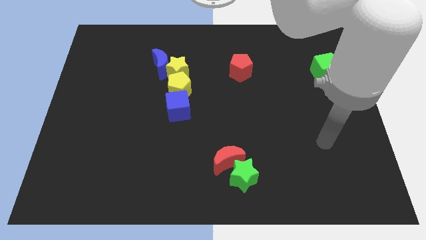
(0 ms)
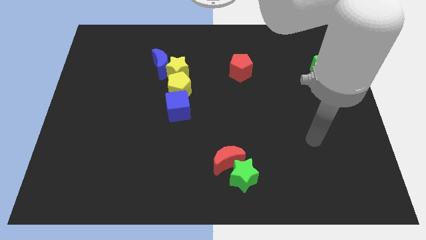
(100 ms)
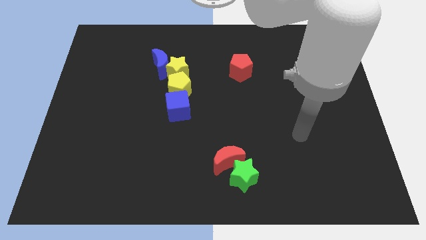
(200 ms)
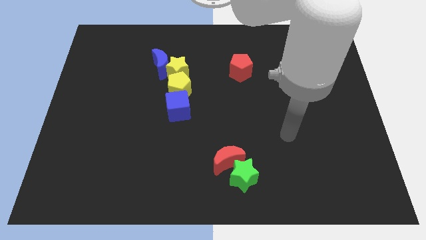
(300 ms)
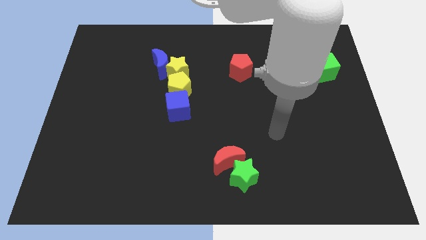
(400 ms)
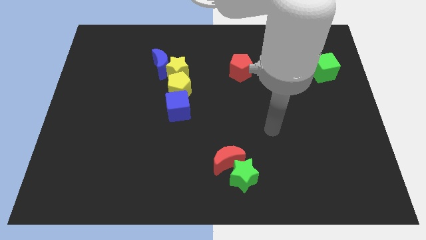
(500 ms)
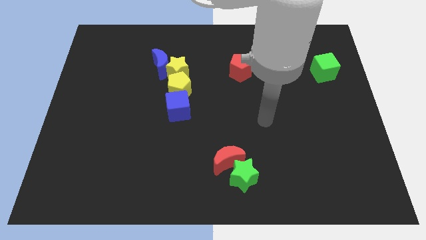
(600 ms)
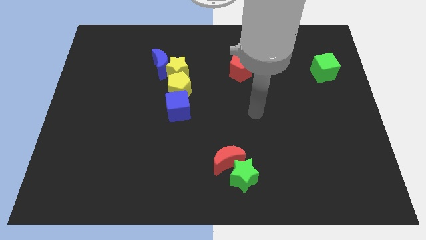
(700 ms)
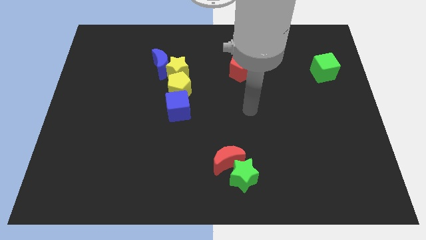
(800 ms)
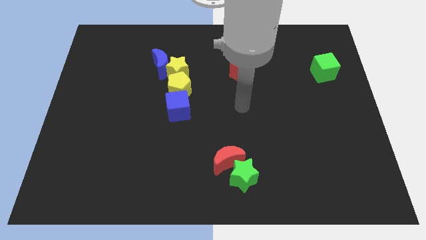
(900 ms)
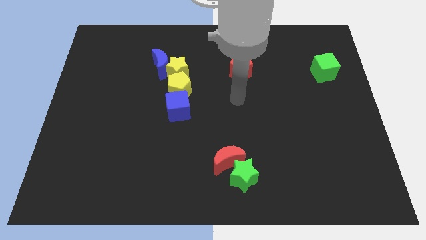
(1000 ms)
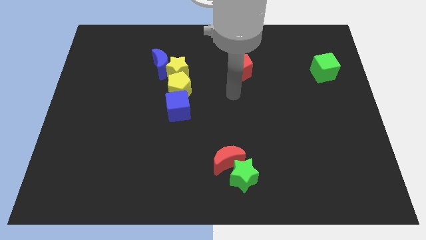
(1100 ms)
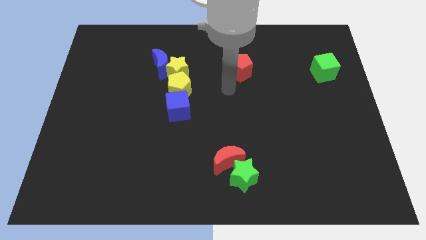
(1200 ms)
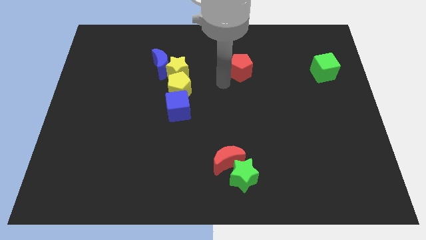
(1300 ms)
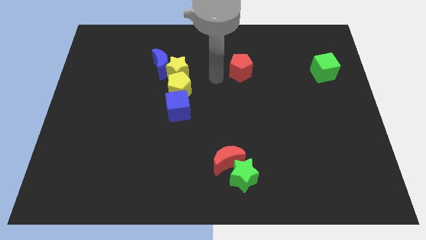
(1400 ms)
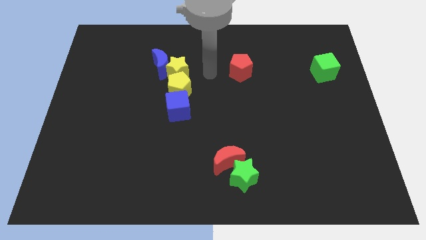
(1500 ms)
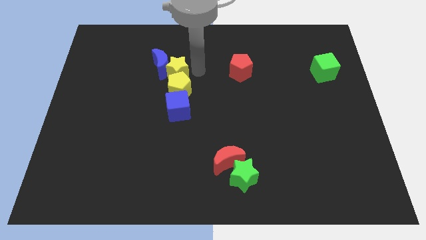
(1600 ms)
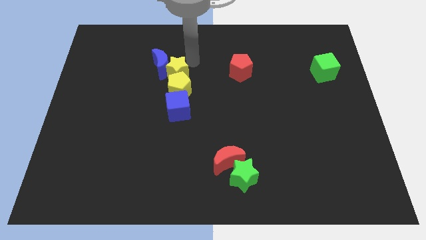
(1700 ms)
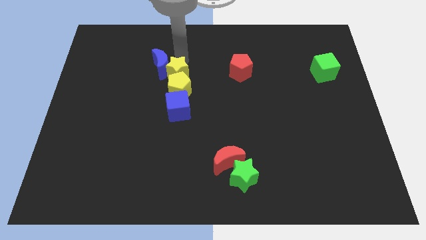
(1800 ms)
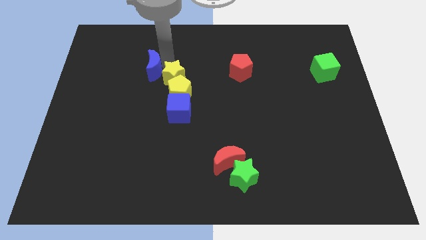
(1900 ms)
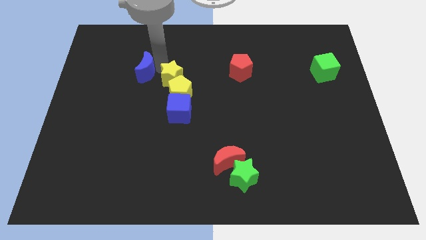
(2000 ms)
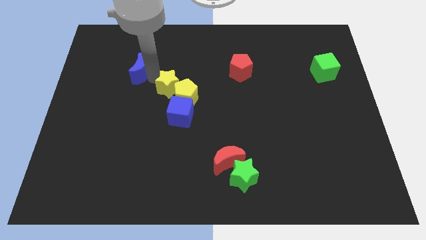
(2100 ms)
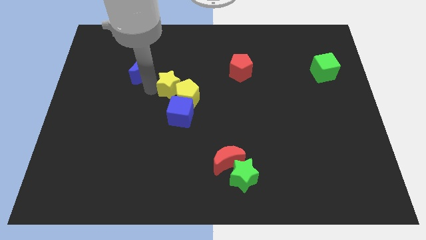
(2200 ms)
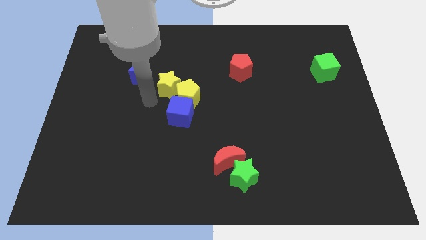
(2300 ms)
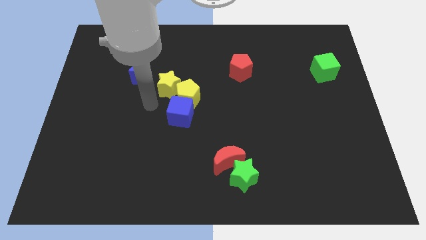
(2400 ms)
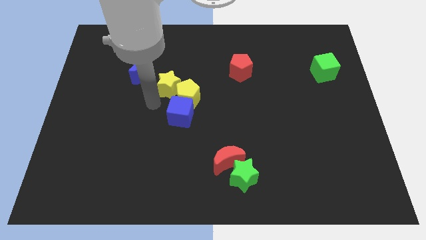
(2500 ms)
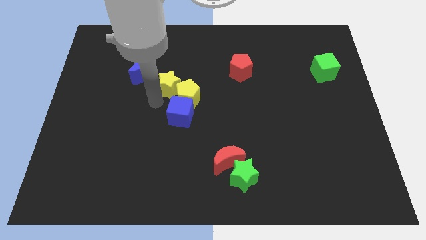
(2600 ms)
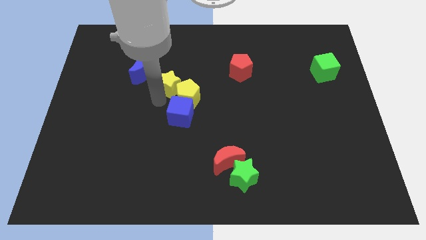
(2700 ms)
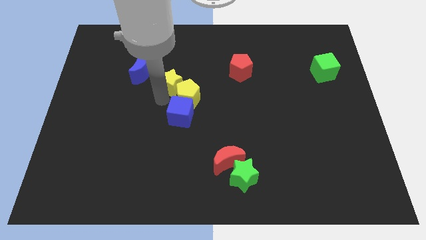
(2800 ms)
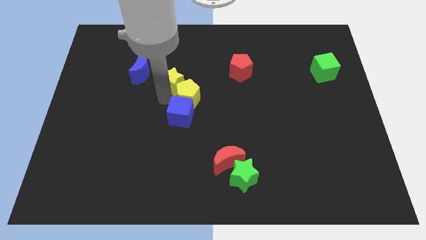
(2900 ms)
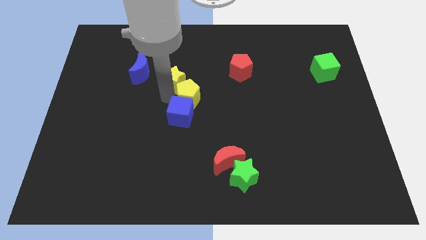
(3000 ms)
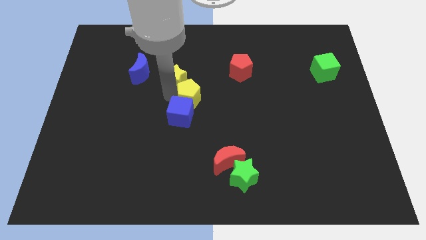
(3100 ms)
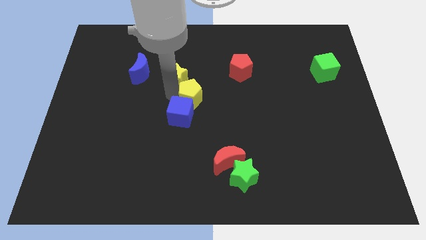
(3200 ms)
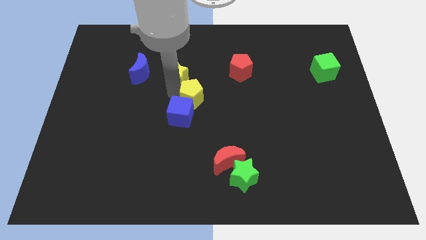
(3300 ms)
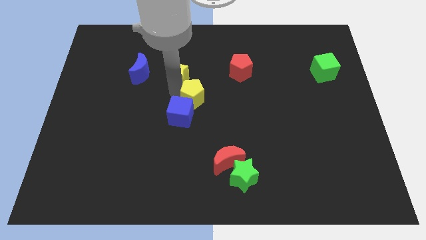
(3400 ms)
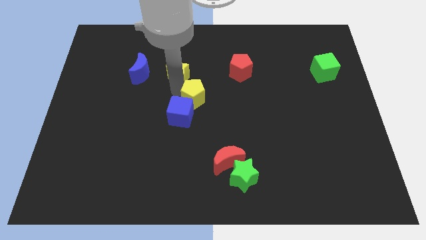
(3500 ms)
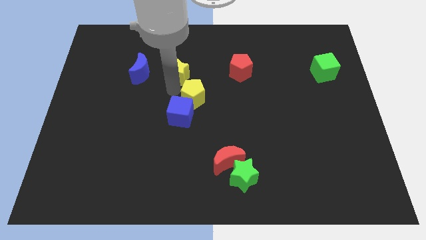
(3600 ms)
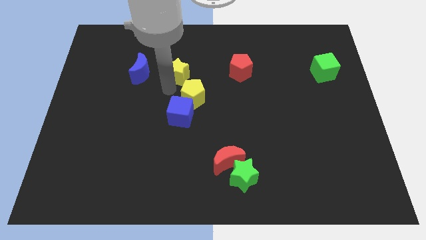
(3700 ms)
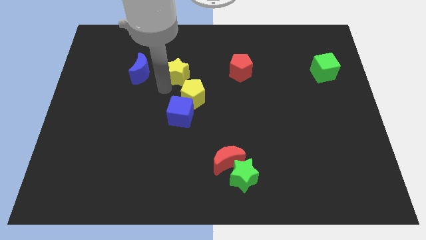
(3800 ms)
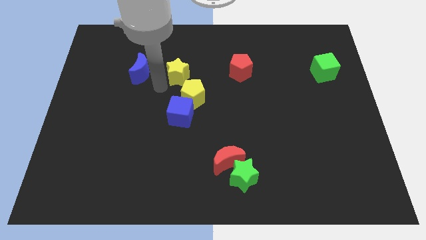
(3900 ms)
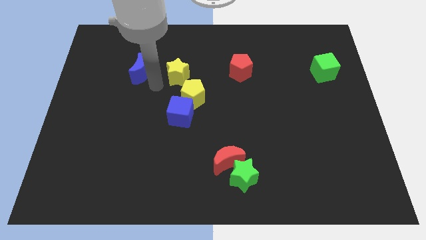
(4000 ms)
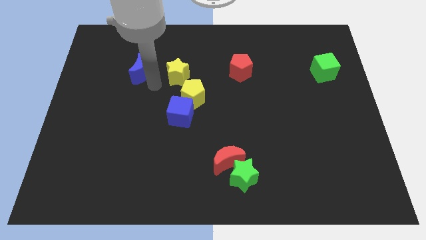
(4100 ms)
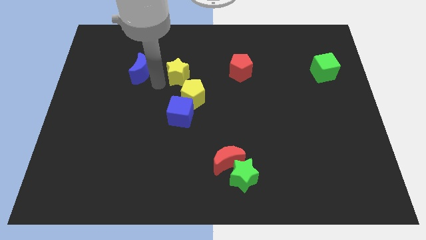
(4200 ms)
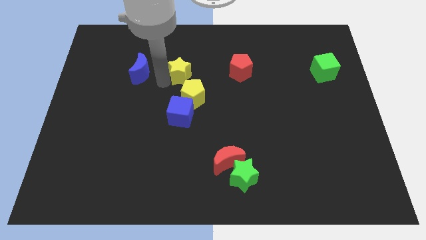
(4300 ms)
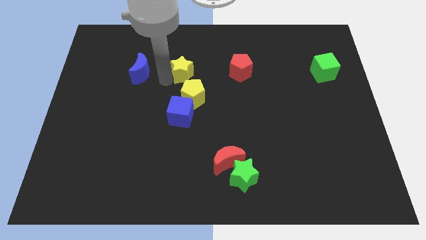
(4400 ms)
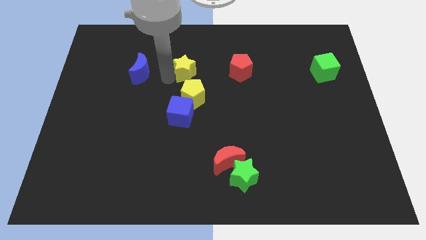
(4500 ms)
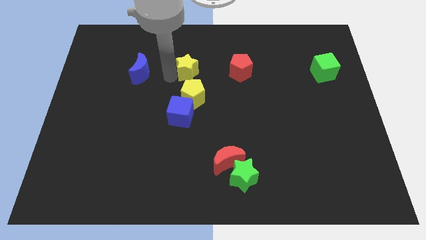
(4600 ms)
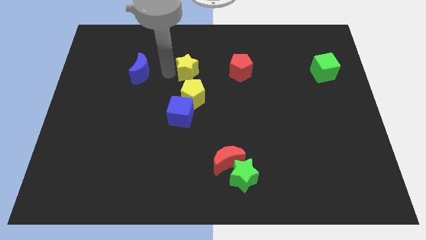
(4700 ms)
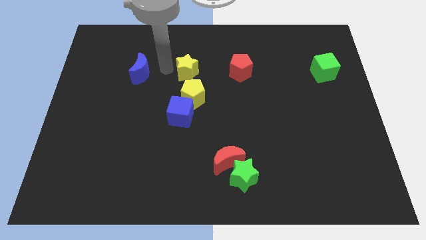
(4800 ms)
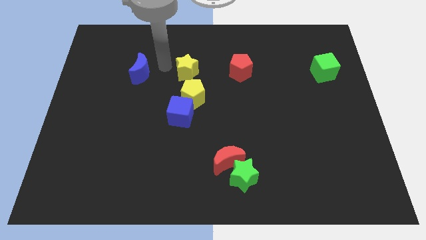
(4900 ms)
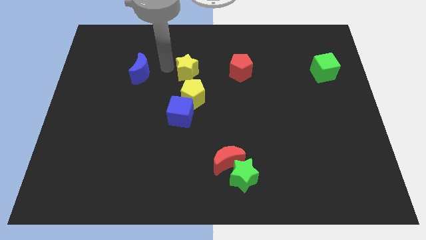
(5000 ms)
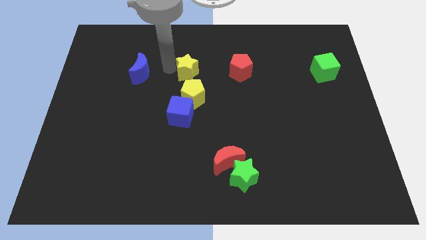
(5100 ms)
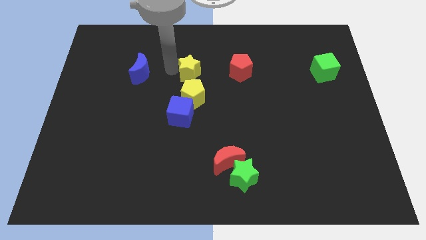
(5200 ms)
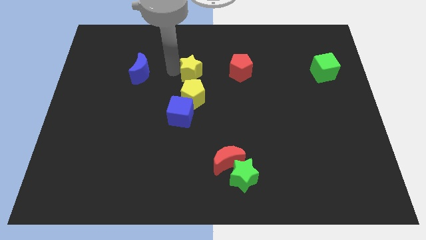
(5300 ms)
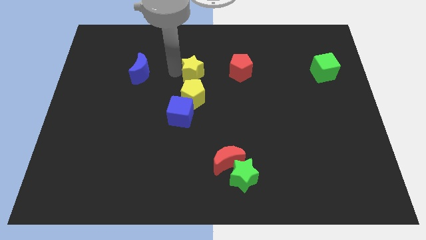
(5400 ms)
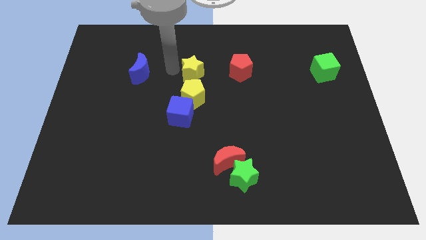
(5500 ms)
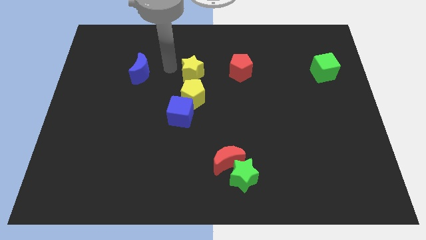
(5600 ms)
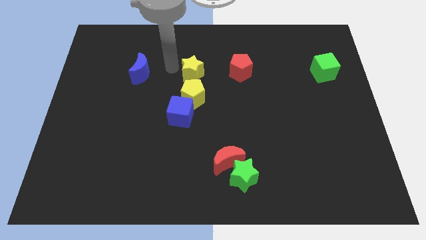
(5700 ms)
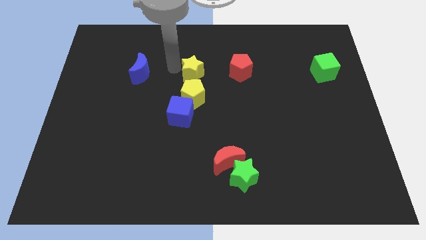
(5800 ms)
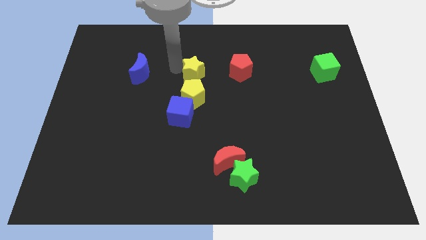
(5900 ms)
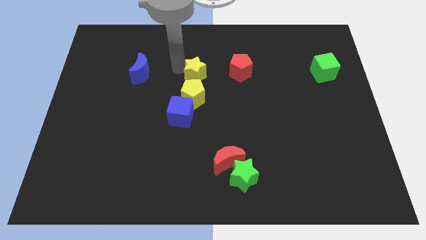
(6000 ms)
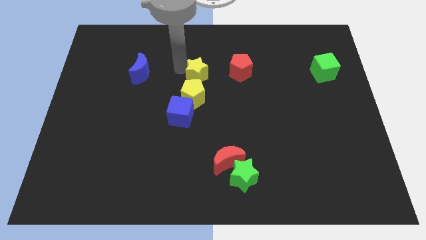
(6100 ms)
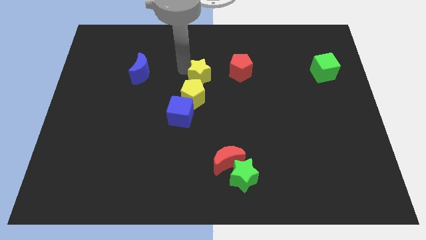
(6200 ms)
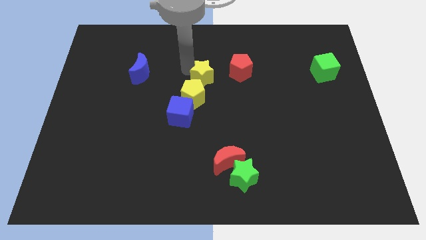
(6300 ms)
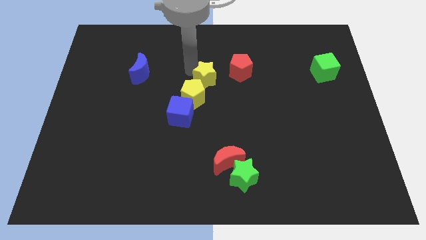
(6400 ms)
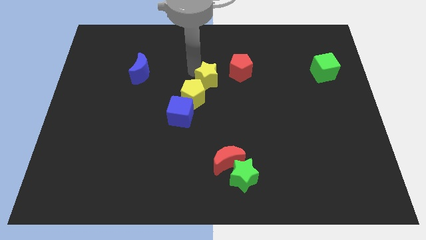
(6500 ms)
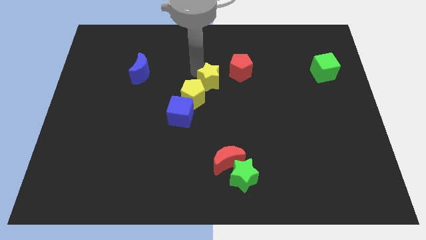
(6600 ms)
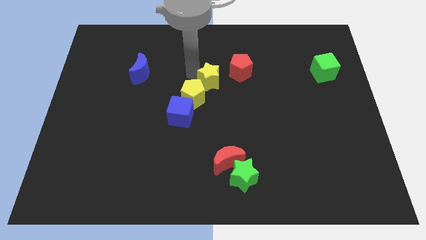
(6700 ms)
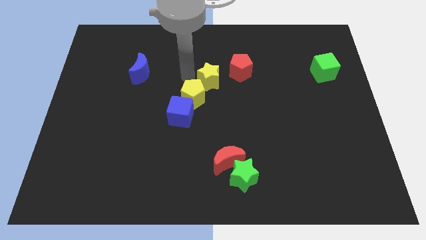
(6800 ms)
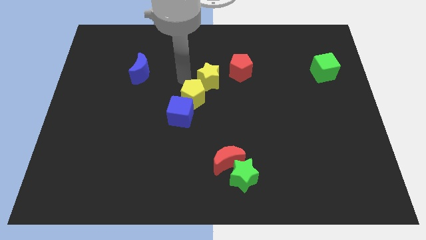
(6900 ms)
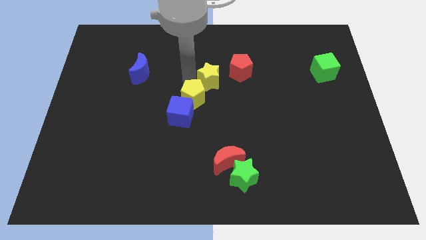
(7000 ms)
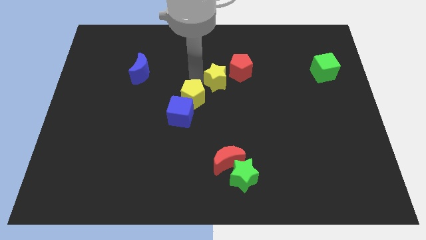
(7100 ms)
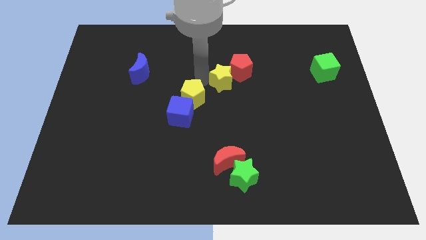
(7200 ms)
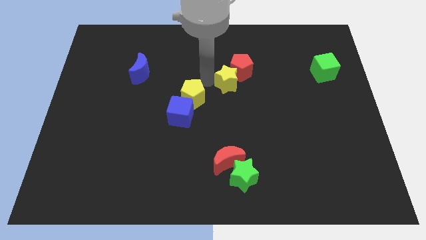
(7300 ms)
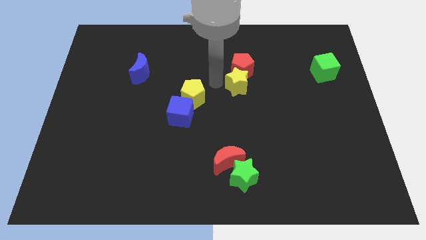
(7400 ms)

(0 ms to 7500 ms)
push the yellow star to the bottom right of the red pentagon

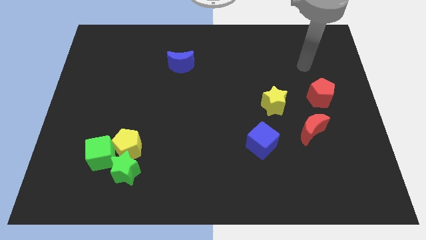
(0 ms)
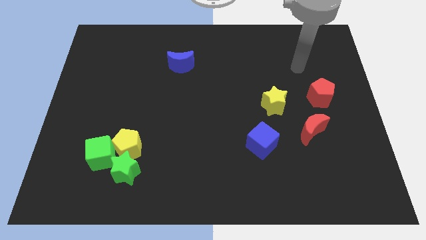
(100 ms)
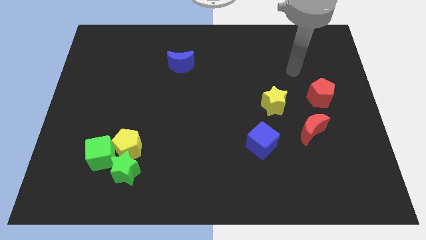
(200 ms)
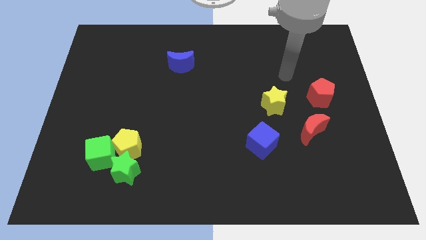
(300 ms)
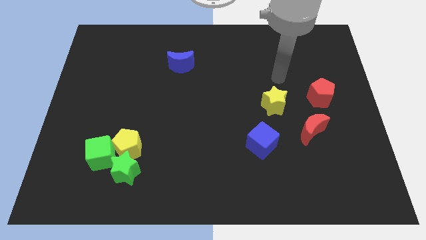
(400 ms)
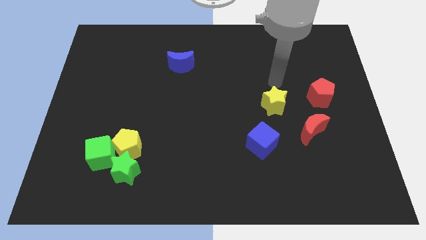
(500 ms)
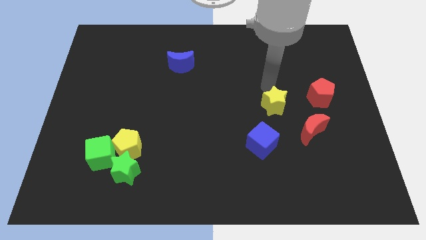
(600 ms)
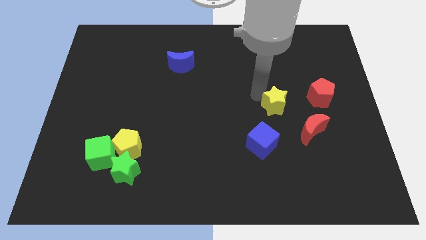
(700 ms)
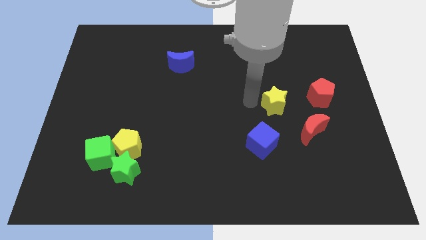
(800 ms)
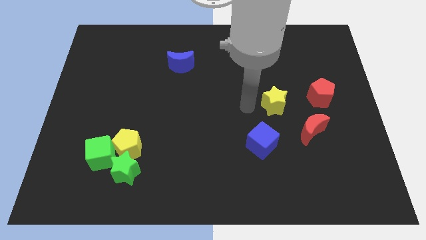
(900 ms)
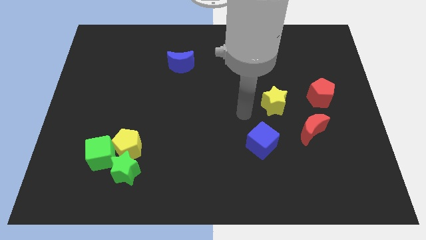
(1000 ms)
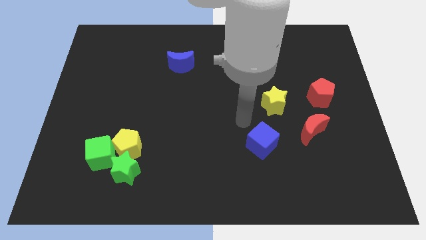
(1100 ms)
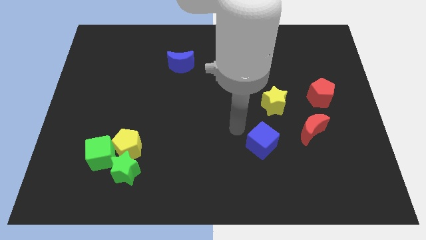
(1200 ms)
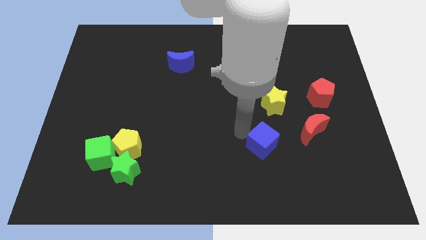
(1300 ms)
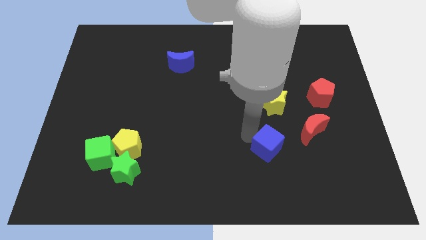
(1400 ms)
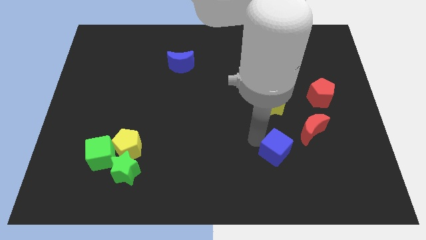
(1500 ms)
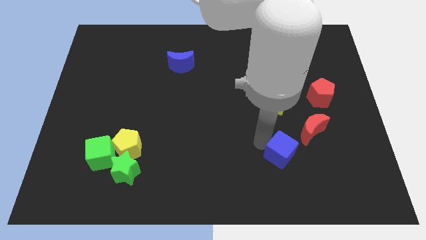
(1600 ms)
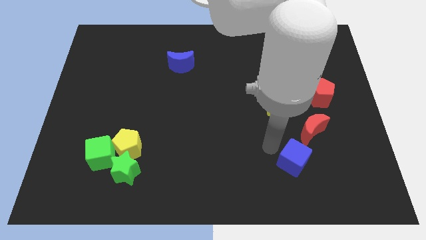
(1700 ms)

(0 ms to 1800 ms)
push the blue cube below the red moon
